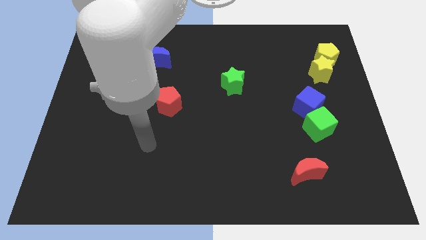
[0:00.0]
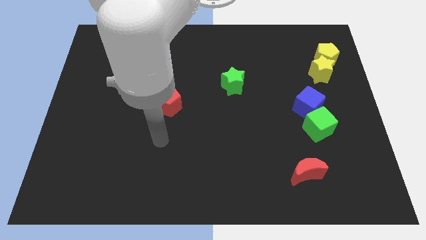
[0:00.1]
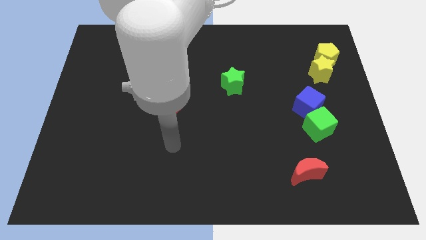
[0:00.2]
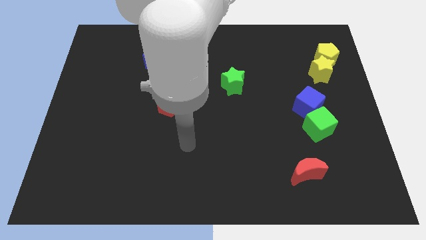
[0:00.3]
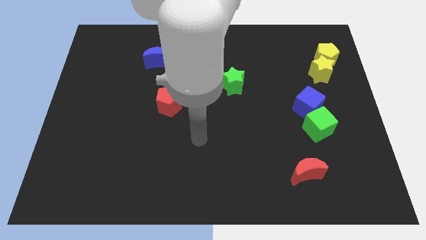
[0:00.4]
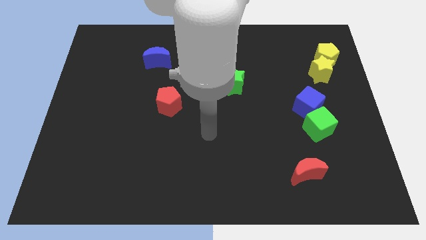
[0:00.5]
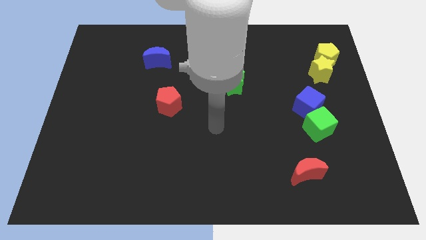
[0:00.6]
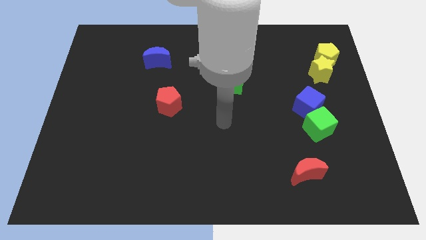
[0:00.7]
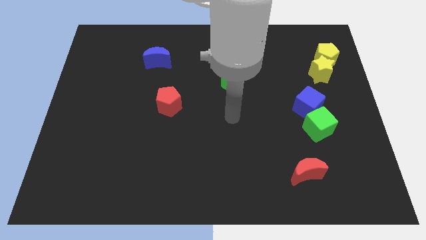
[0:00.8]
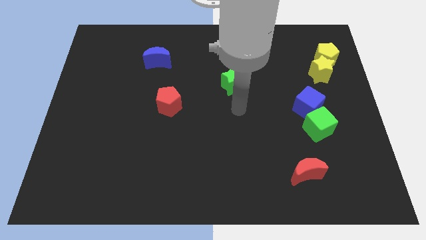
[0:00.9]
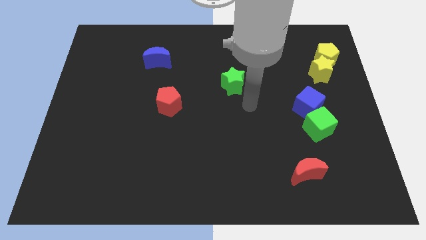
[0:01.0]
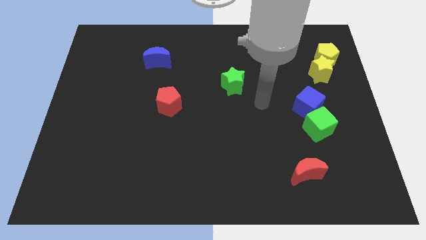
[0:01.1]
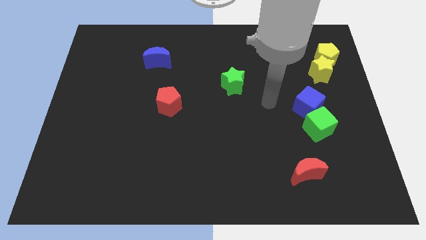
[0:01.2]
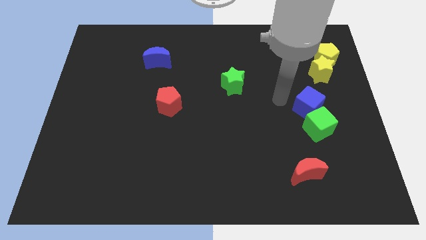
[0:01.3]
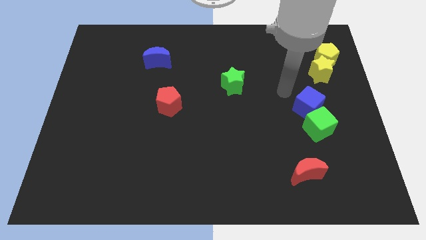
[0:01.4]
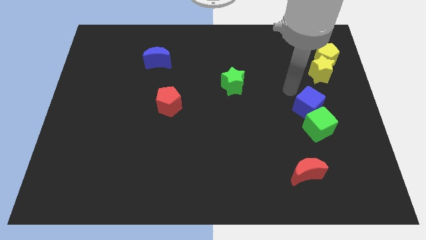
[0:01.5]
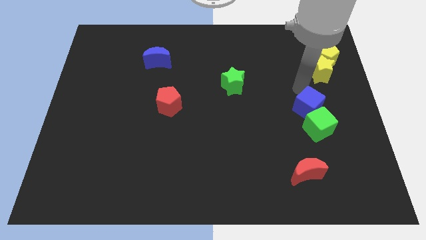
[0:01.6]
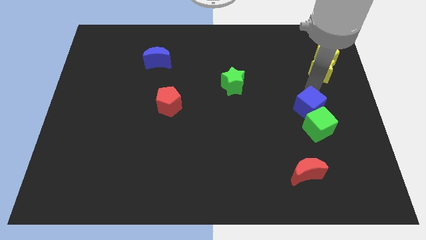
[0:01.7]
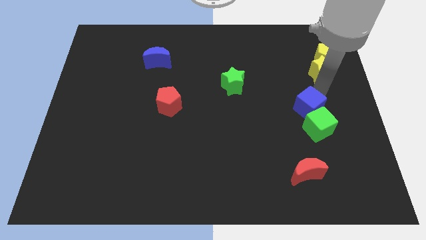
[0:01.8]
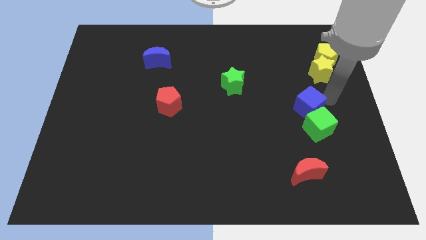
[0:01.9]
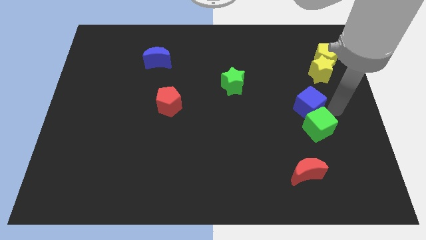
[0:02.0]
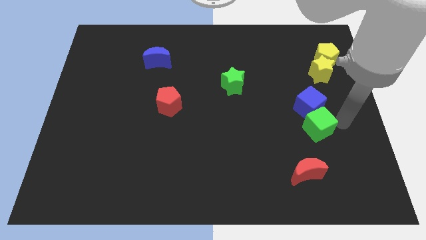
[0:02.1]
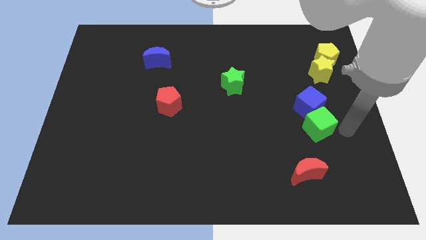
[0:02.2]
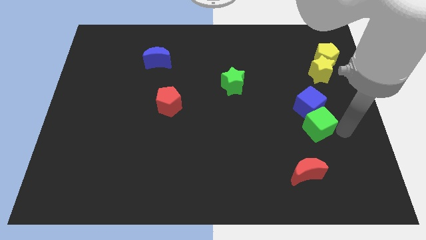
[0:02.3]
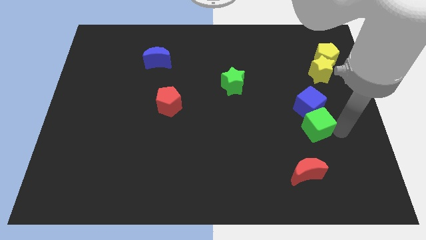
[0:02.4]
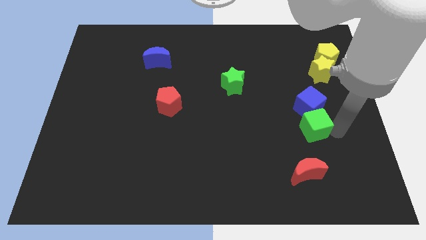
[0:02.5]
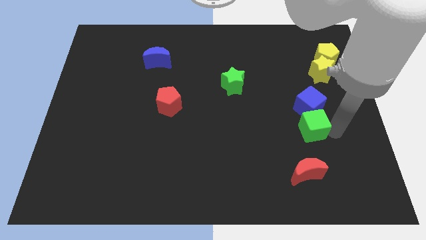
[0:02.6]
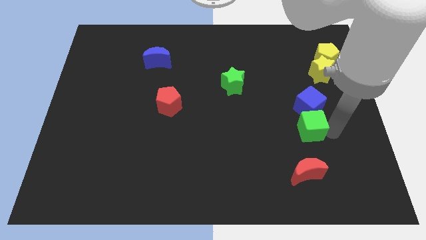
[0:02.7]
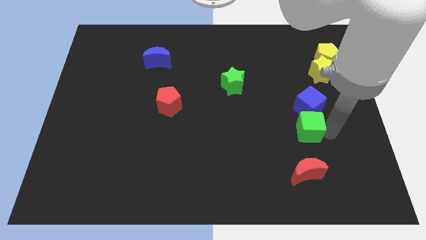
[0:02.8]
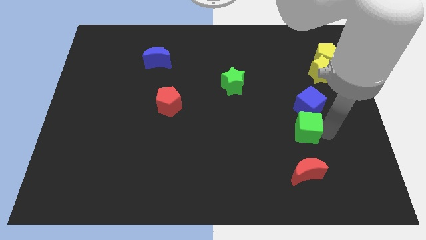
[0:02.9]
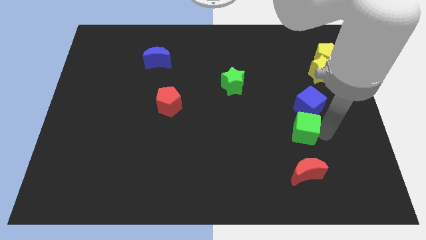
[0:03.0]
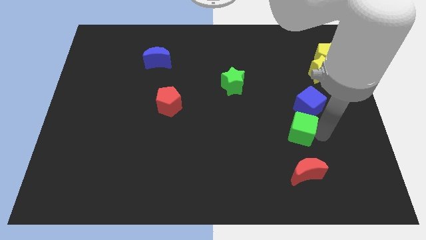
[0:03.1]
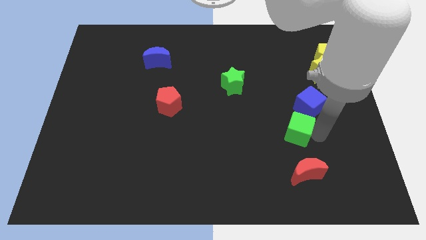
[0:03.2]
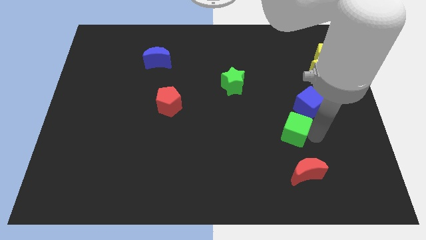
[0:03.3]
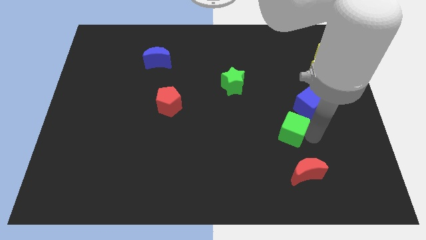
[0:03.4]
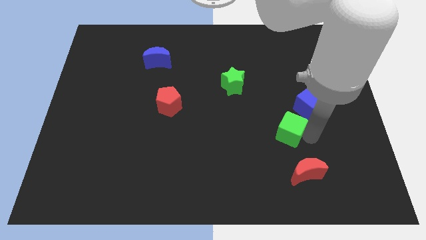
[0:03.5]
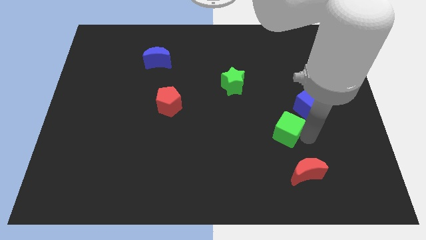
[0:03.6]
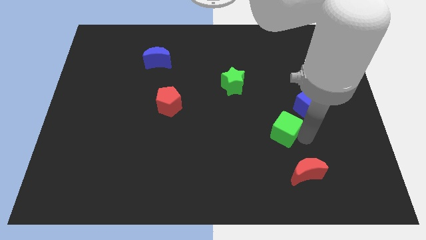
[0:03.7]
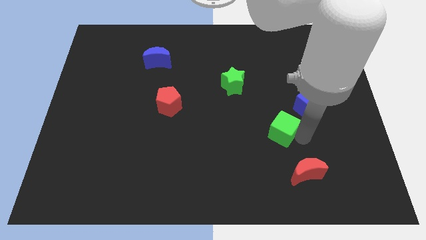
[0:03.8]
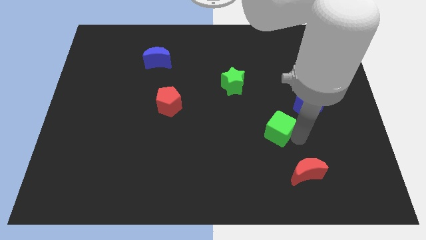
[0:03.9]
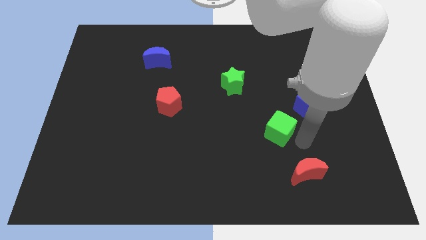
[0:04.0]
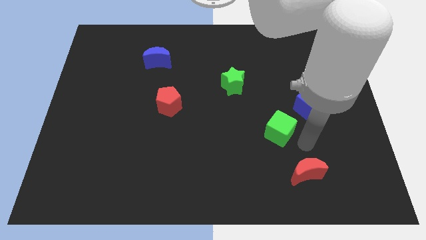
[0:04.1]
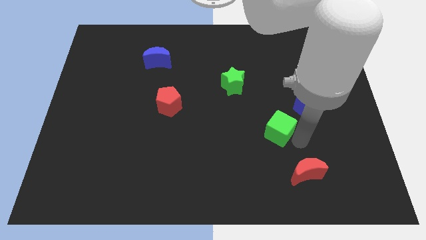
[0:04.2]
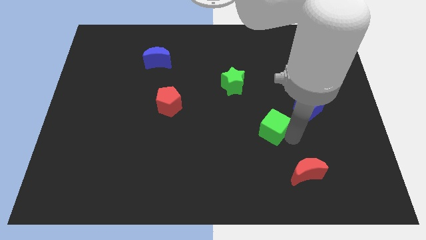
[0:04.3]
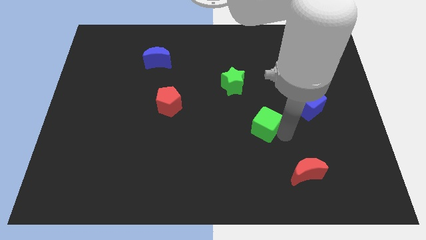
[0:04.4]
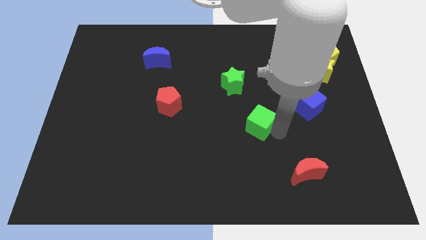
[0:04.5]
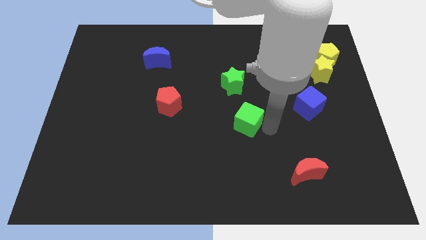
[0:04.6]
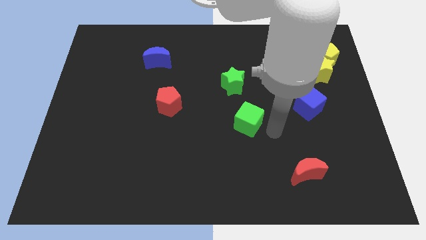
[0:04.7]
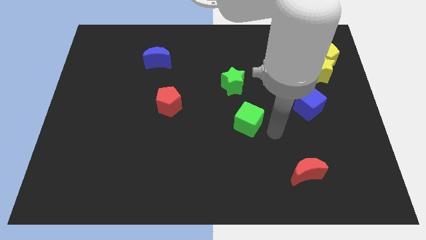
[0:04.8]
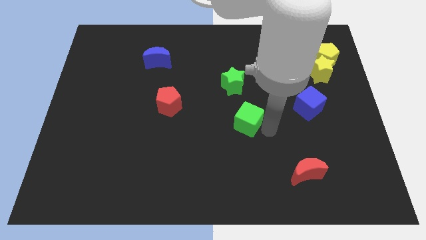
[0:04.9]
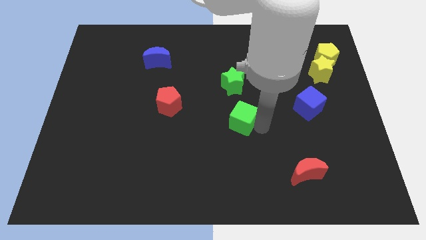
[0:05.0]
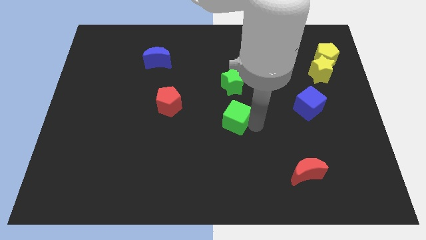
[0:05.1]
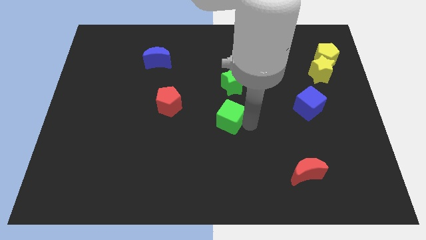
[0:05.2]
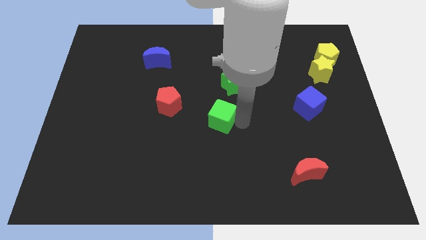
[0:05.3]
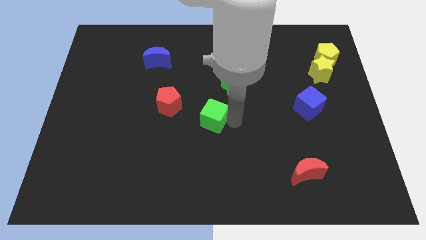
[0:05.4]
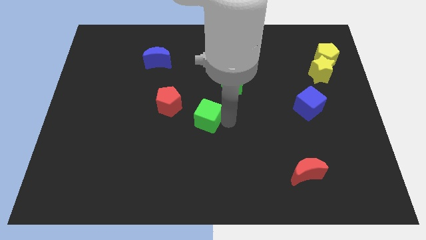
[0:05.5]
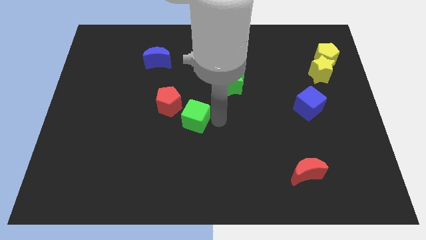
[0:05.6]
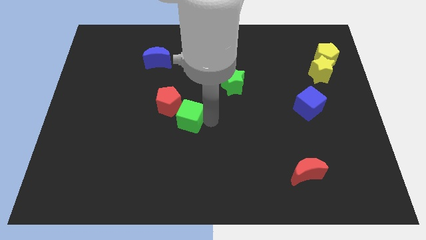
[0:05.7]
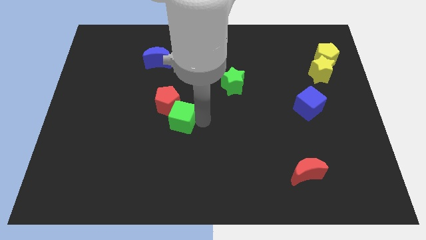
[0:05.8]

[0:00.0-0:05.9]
put the green cube to the red pentagon

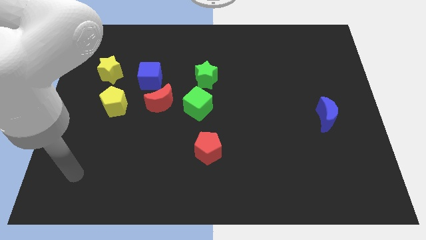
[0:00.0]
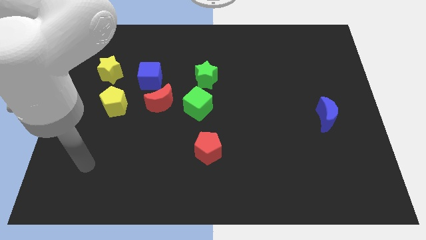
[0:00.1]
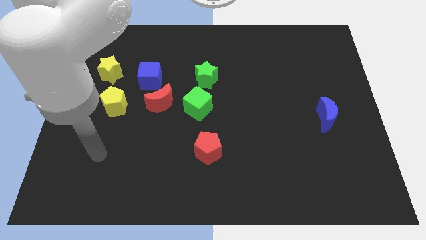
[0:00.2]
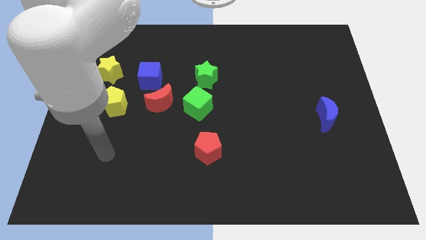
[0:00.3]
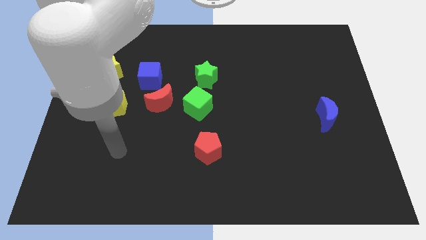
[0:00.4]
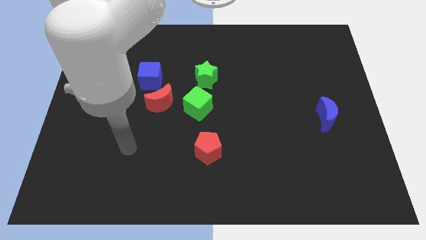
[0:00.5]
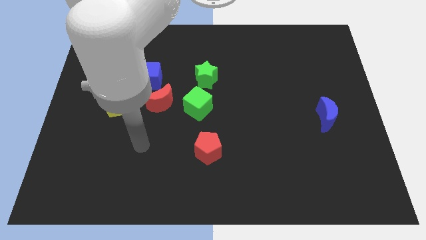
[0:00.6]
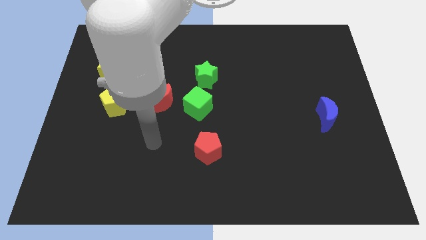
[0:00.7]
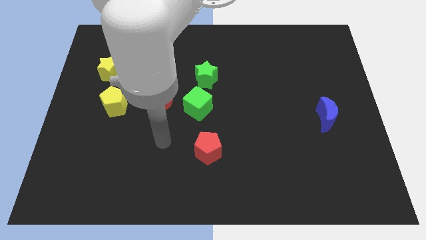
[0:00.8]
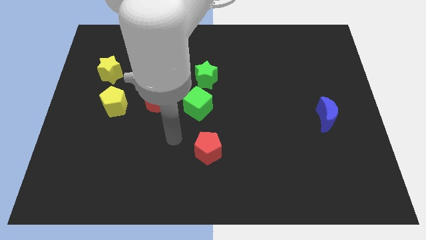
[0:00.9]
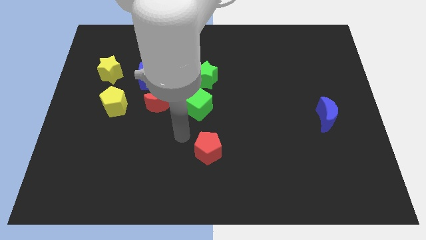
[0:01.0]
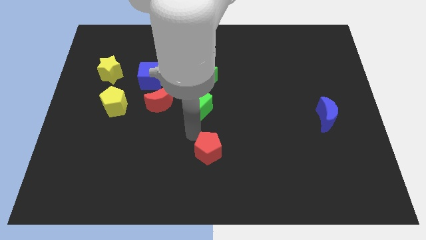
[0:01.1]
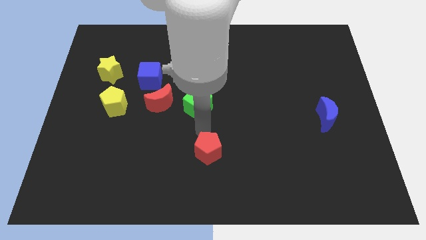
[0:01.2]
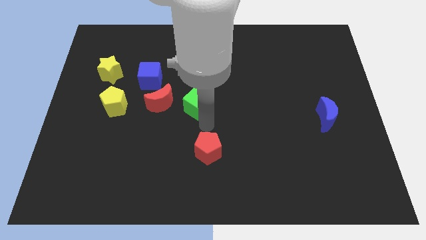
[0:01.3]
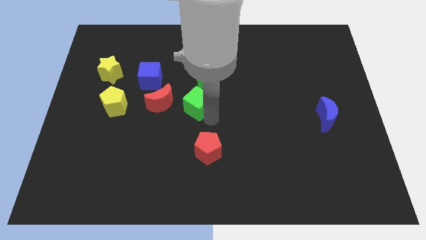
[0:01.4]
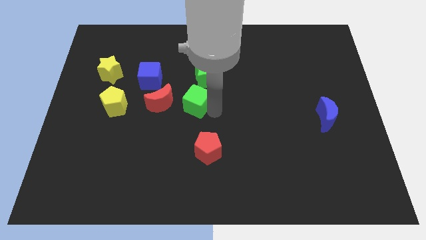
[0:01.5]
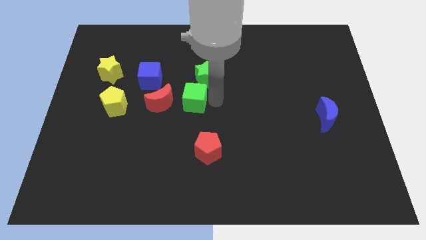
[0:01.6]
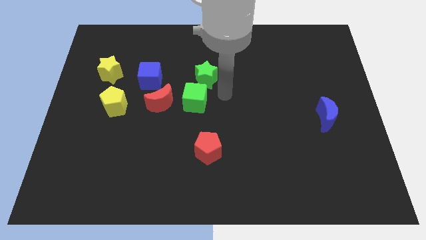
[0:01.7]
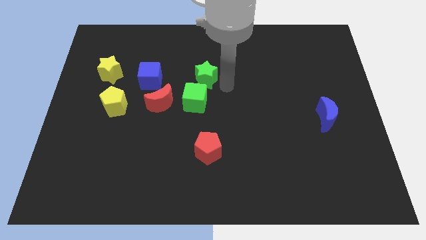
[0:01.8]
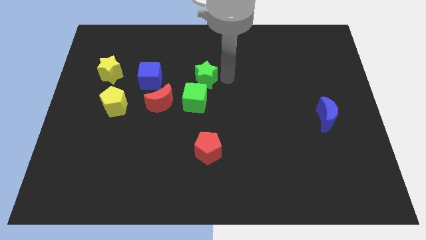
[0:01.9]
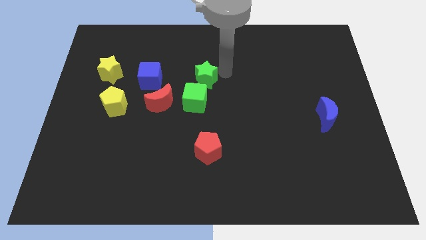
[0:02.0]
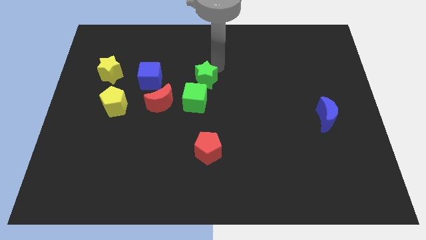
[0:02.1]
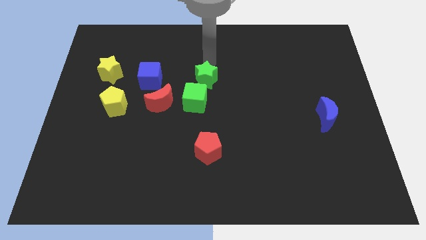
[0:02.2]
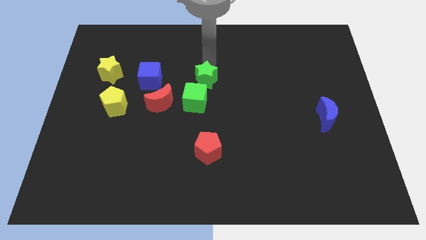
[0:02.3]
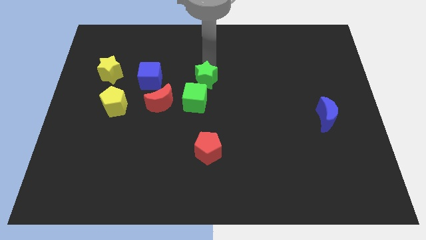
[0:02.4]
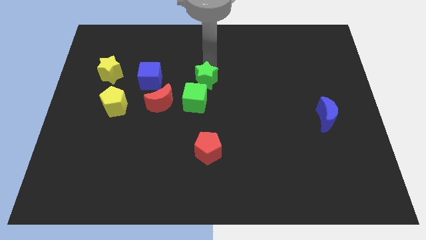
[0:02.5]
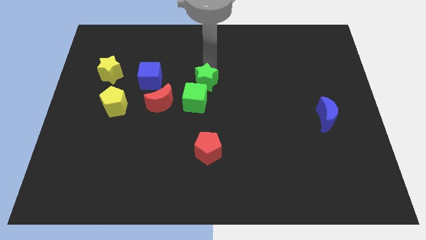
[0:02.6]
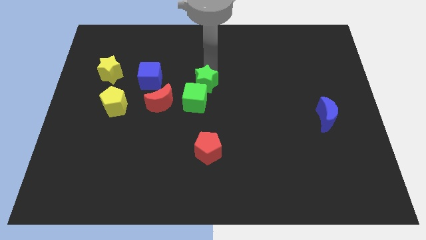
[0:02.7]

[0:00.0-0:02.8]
slide the green star next to the green cube
